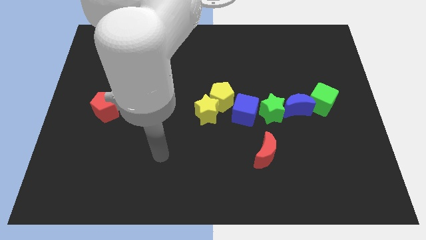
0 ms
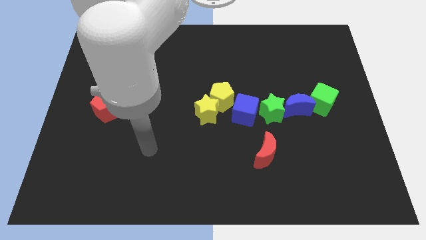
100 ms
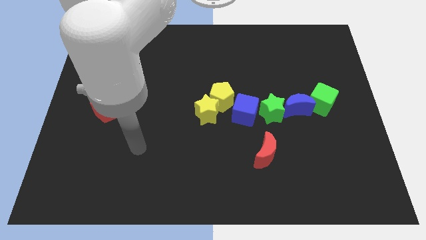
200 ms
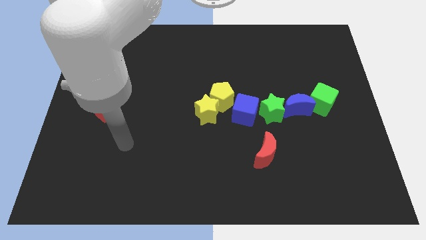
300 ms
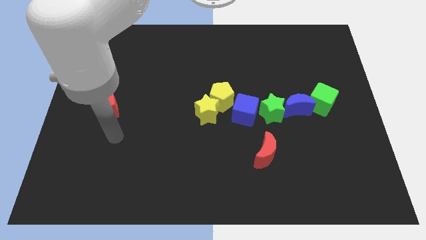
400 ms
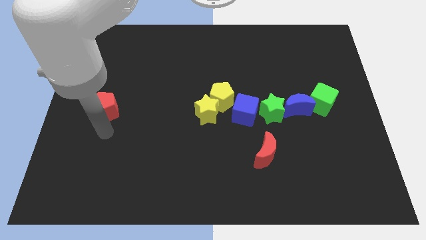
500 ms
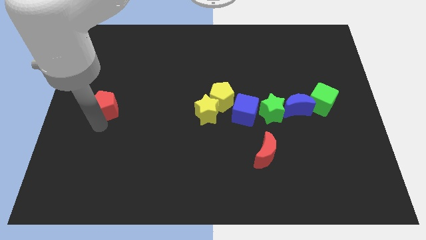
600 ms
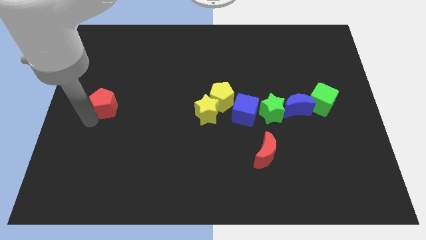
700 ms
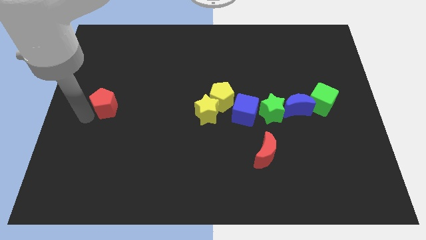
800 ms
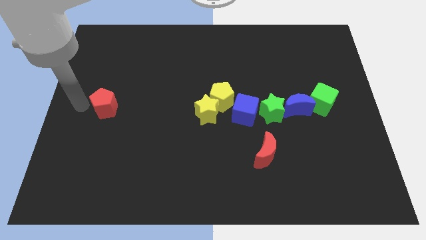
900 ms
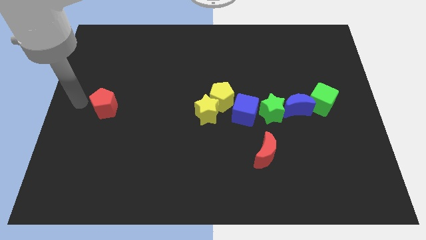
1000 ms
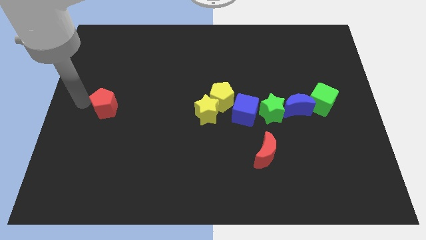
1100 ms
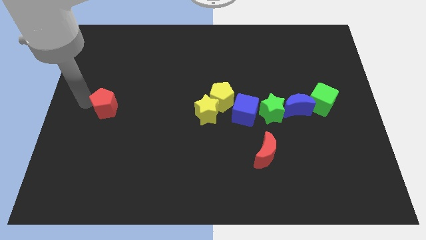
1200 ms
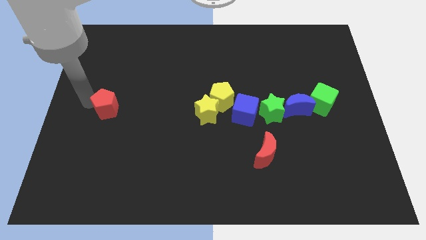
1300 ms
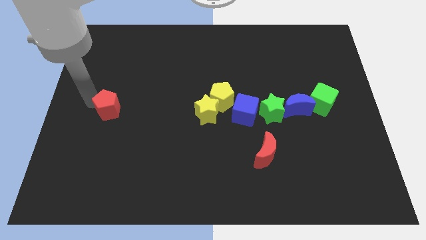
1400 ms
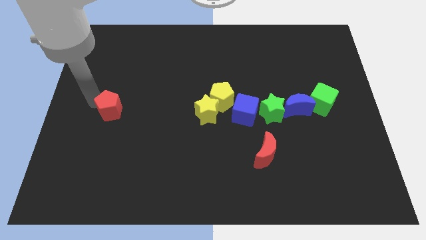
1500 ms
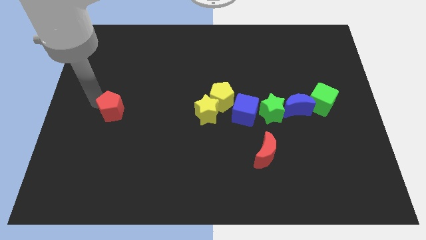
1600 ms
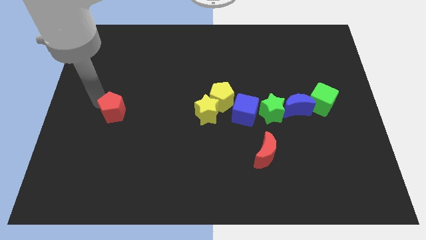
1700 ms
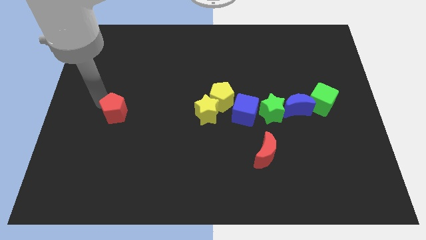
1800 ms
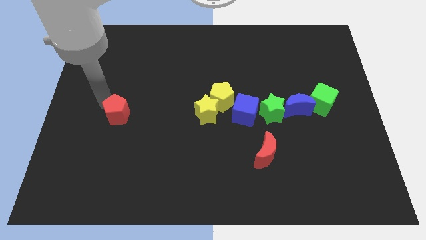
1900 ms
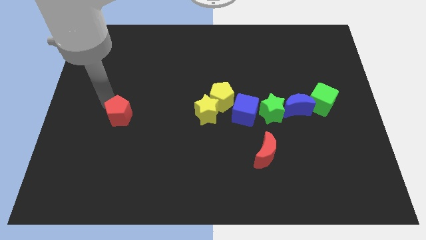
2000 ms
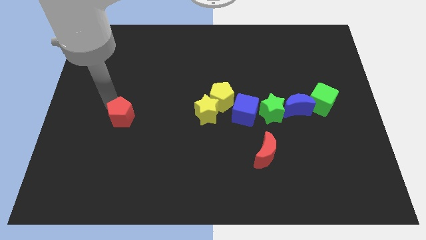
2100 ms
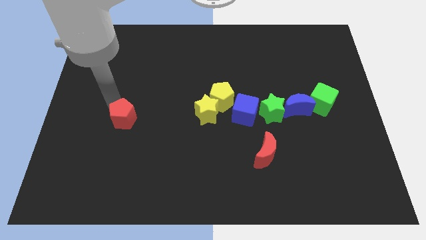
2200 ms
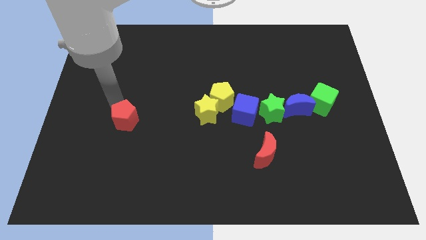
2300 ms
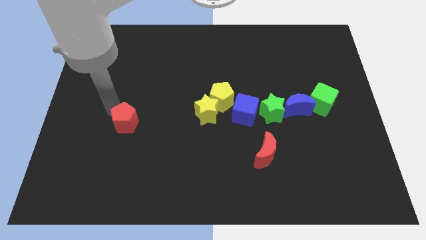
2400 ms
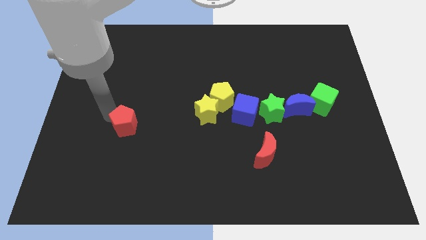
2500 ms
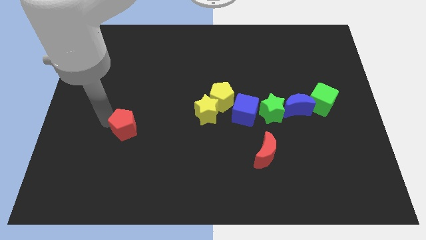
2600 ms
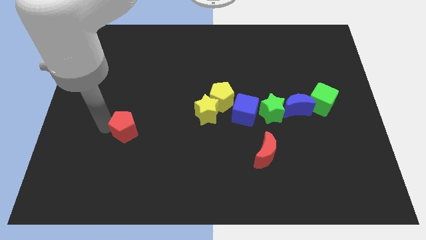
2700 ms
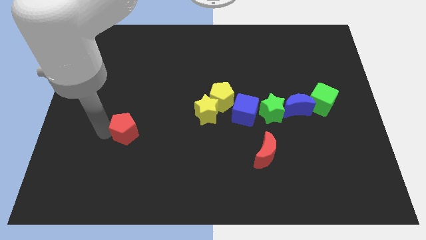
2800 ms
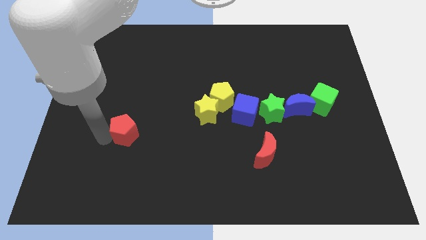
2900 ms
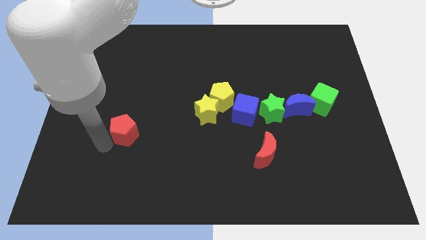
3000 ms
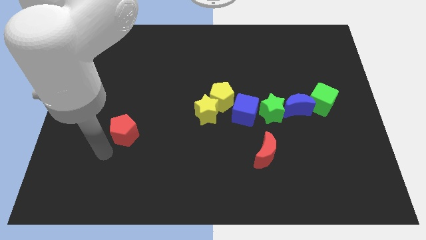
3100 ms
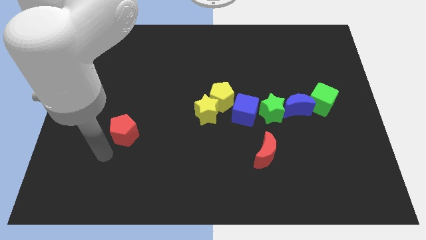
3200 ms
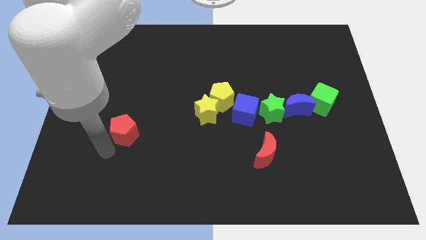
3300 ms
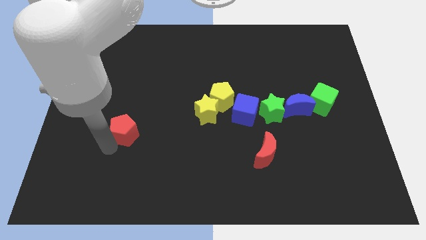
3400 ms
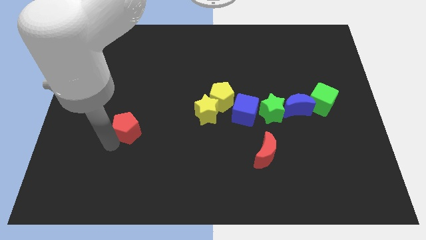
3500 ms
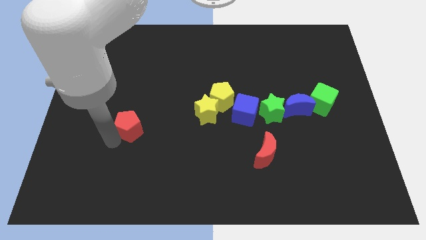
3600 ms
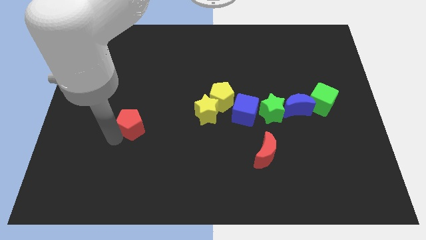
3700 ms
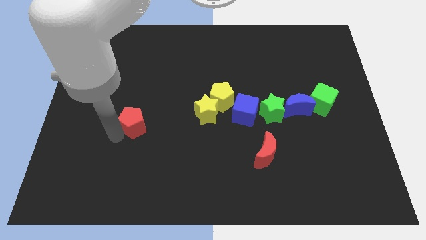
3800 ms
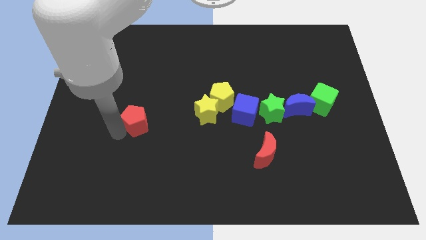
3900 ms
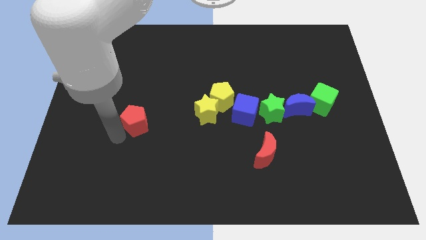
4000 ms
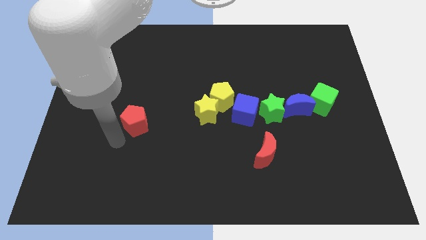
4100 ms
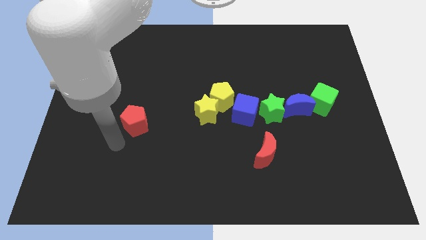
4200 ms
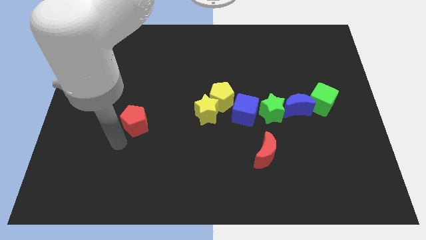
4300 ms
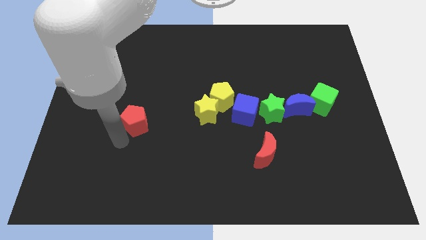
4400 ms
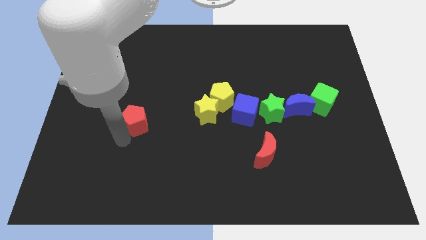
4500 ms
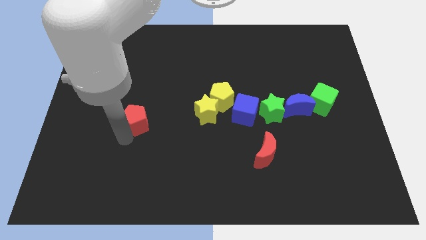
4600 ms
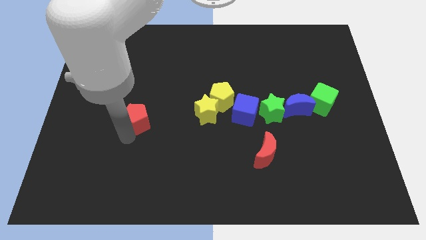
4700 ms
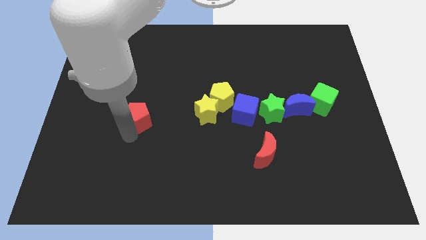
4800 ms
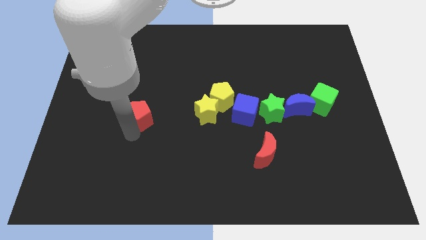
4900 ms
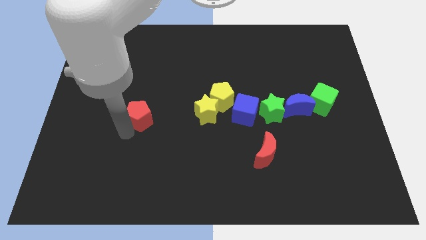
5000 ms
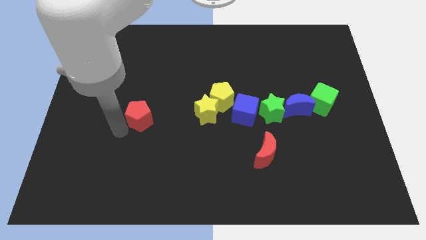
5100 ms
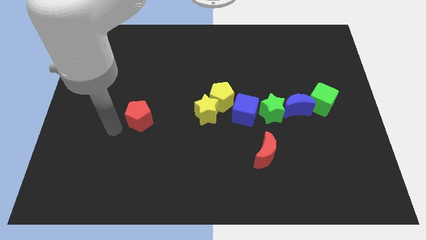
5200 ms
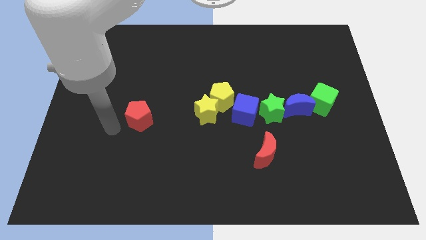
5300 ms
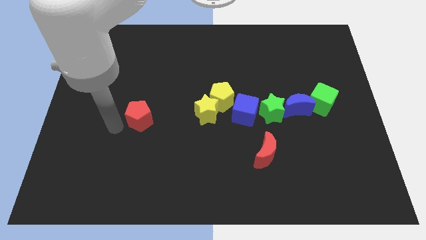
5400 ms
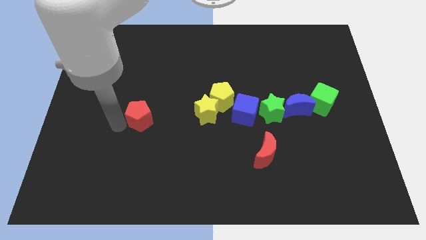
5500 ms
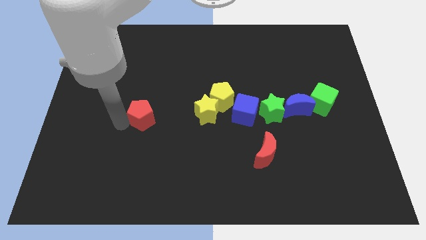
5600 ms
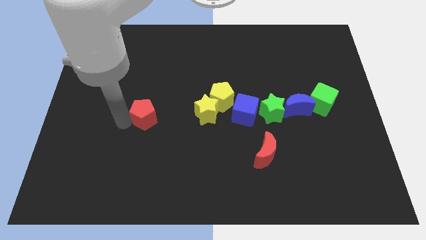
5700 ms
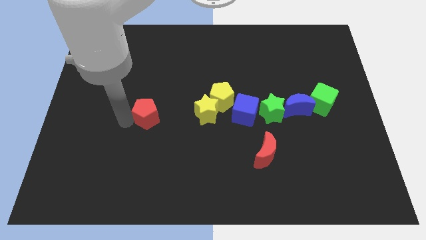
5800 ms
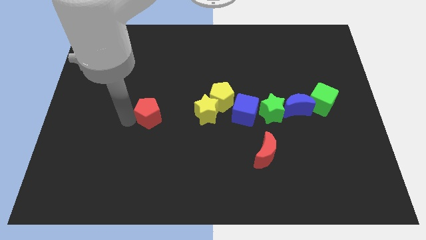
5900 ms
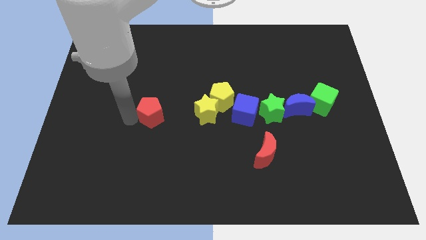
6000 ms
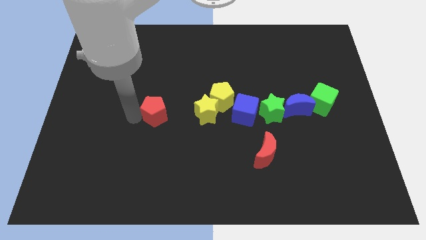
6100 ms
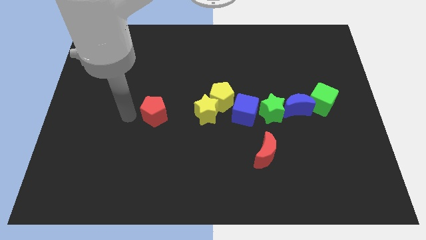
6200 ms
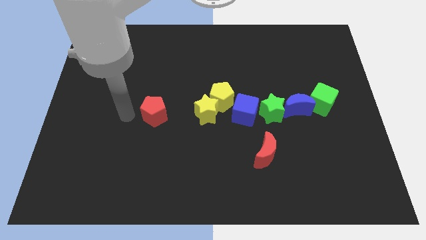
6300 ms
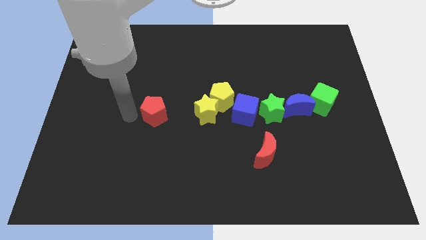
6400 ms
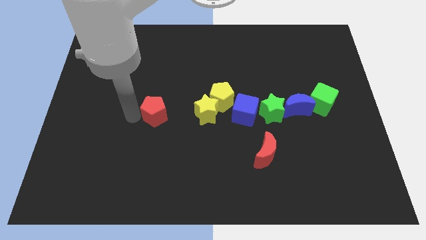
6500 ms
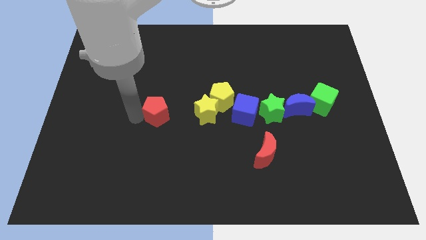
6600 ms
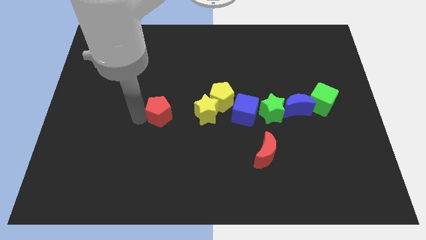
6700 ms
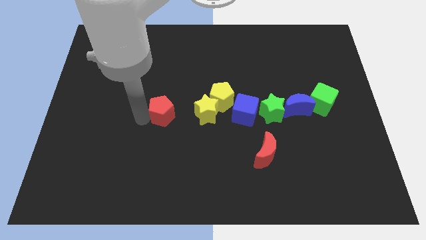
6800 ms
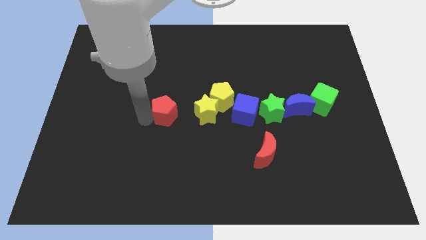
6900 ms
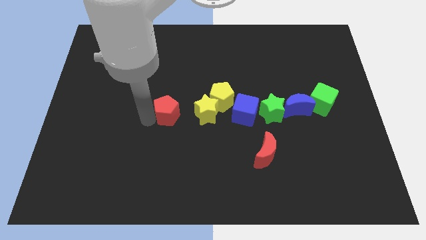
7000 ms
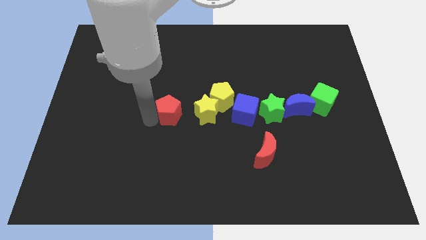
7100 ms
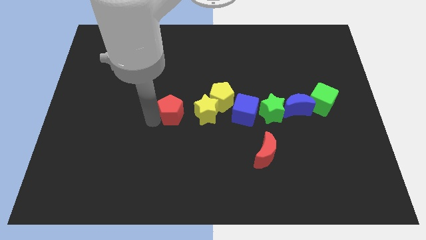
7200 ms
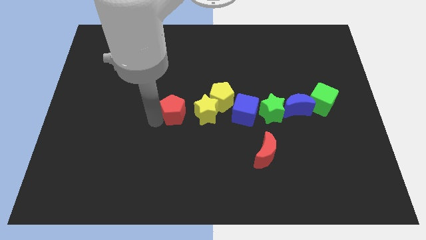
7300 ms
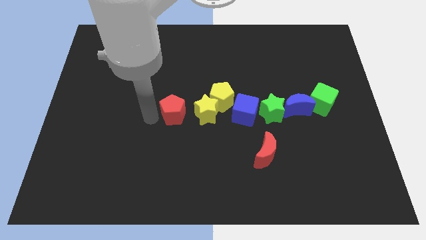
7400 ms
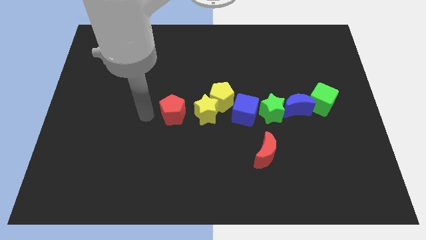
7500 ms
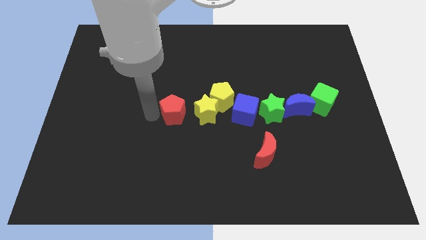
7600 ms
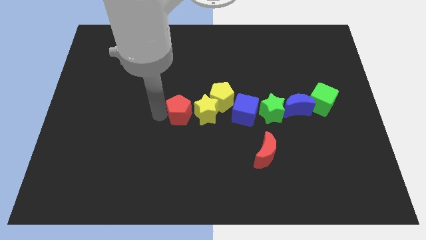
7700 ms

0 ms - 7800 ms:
put the red pentagon close to the yellow star
